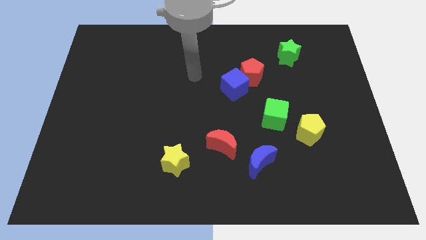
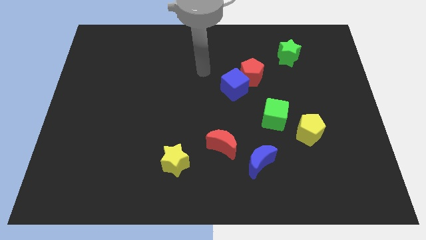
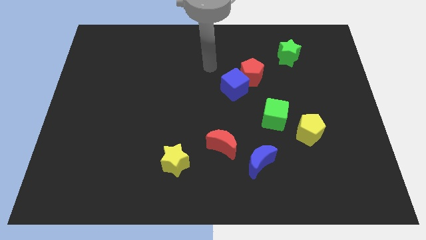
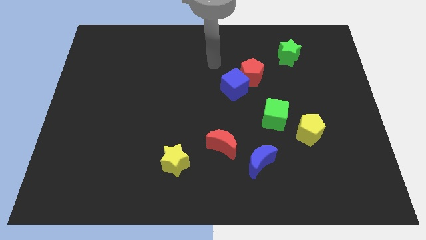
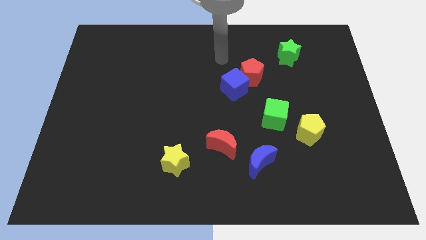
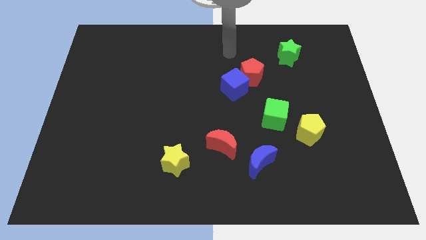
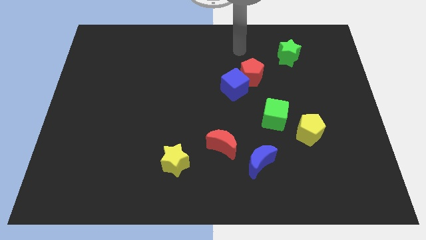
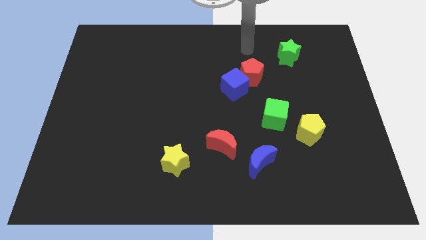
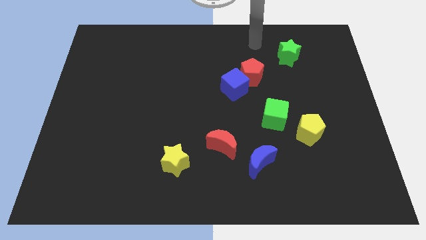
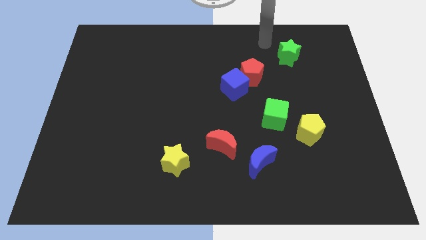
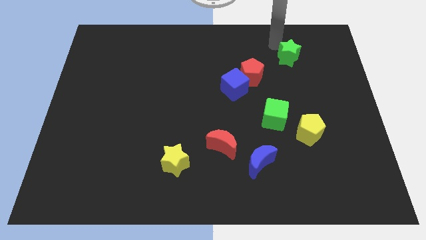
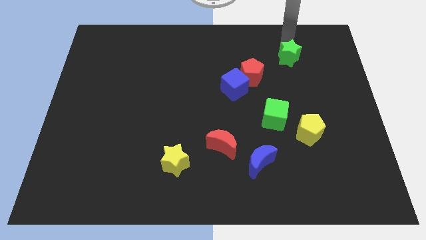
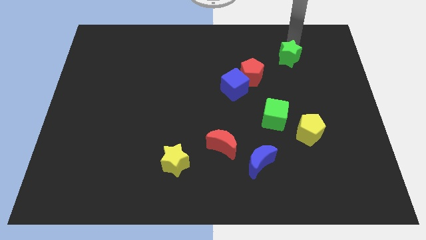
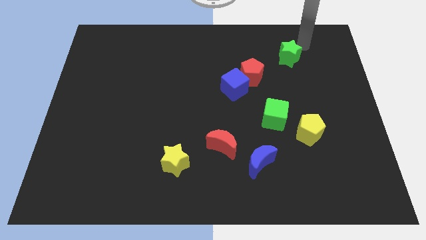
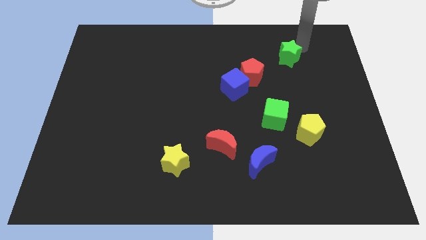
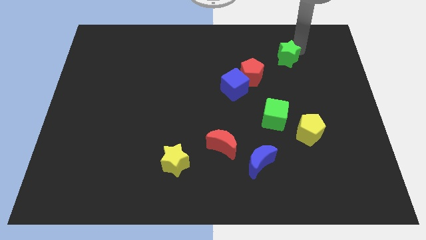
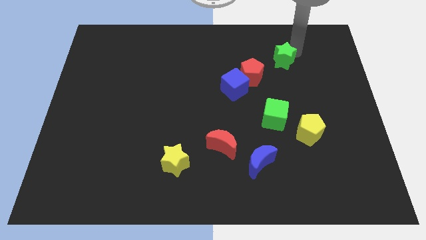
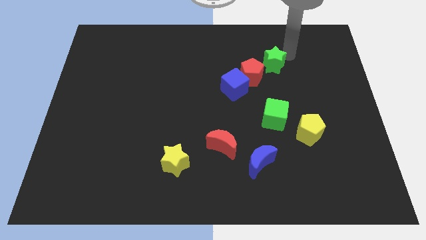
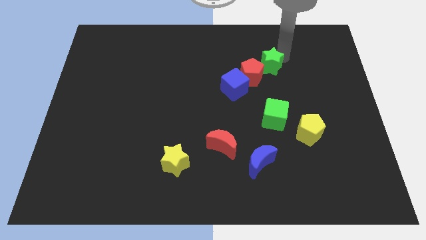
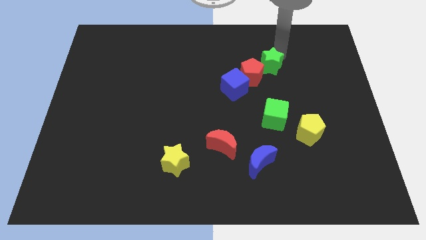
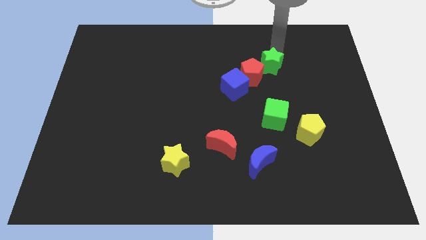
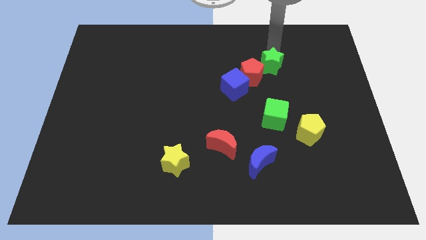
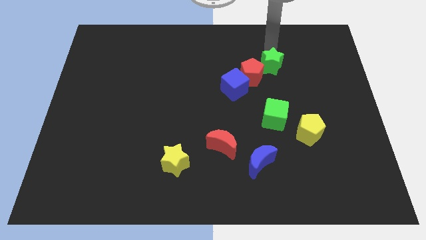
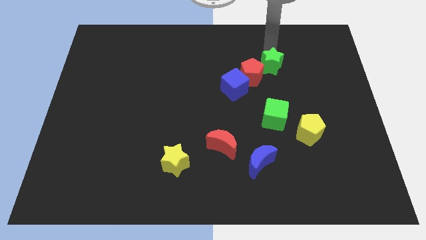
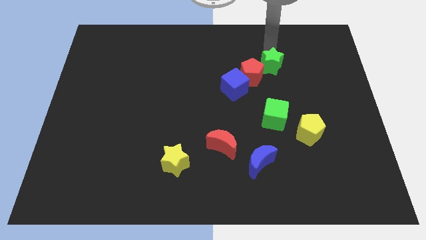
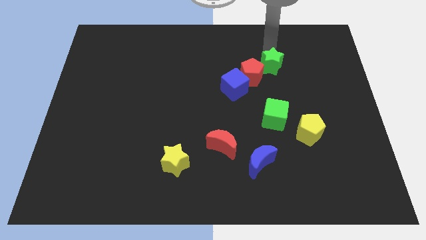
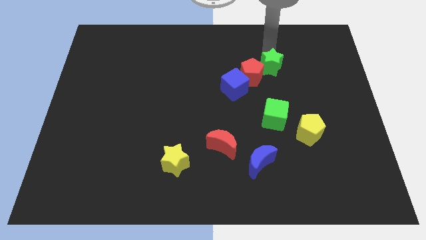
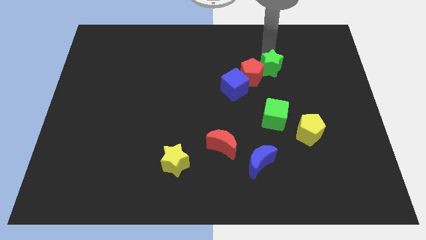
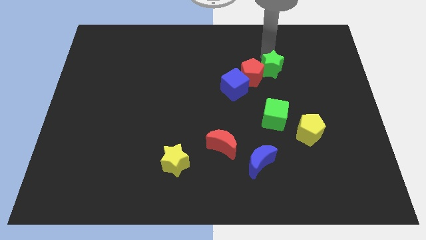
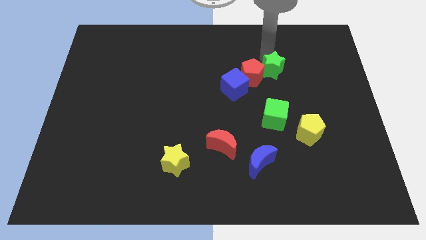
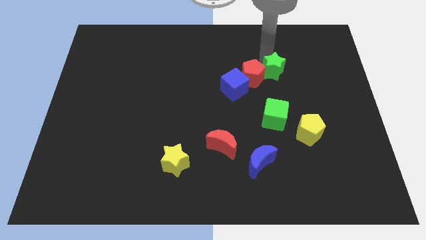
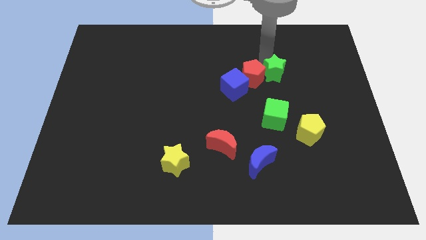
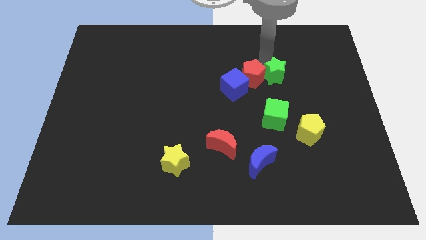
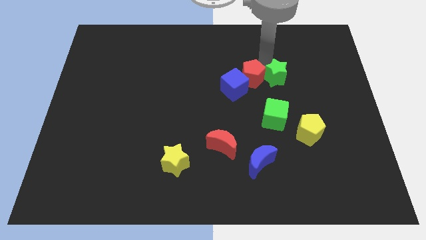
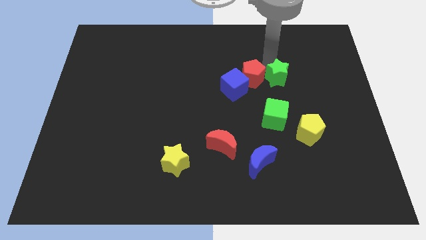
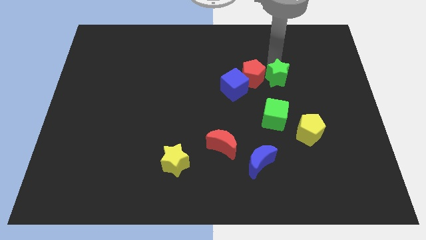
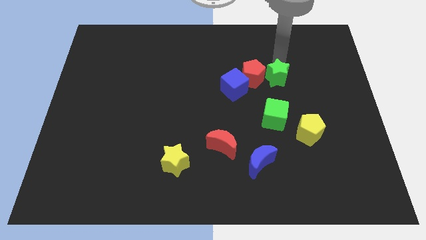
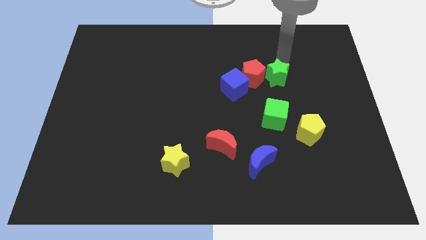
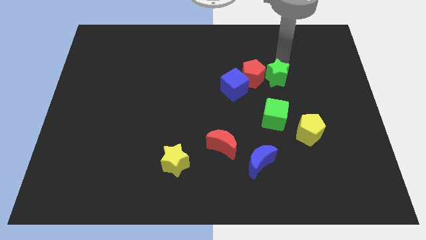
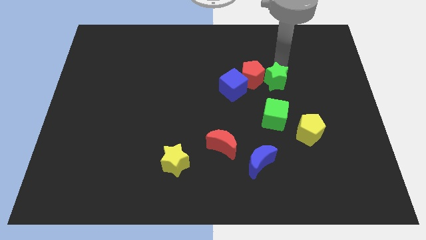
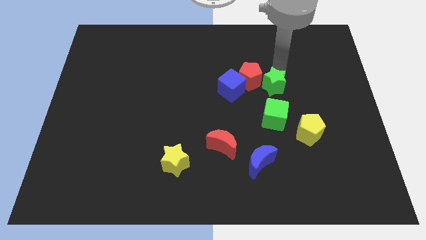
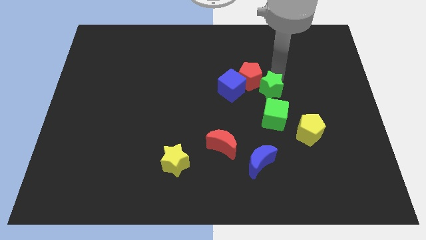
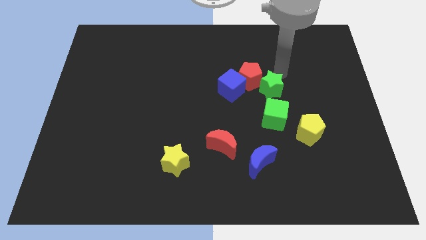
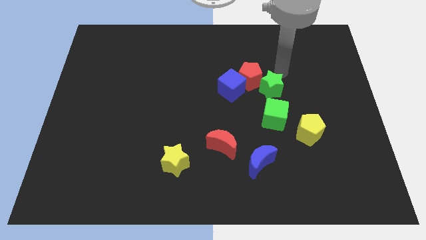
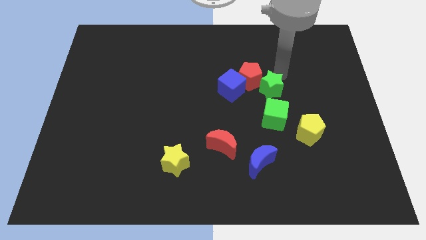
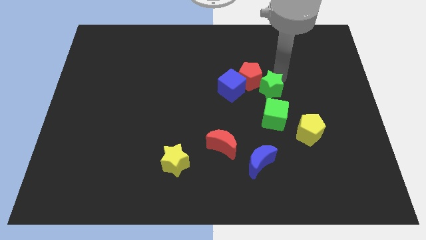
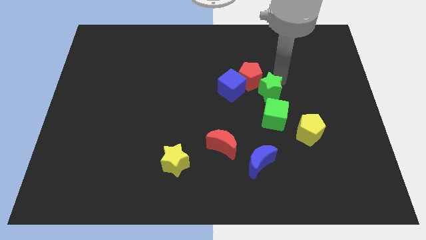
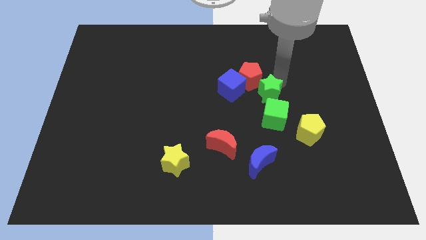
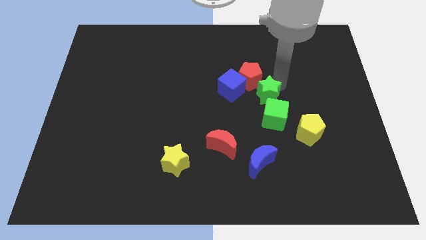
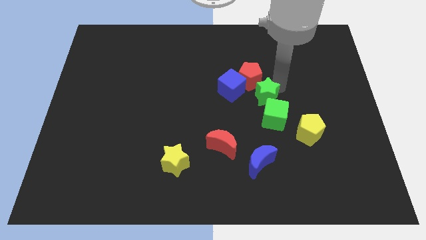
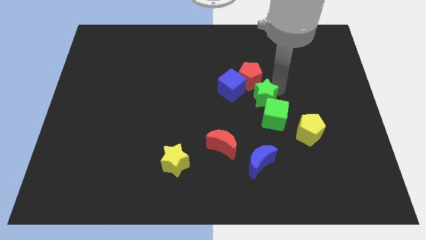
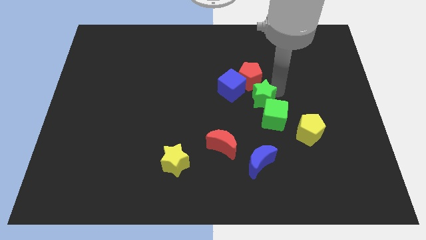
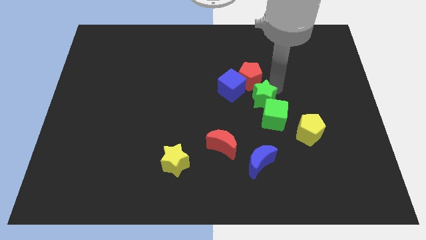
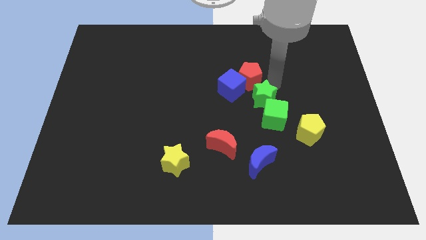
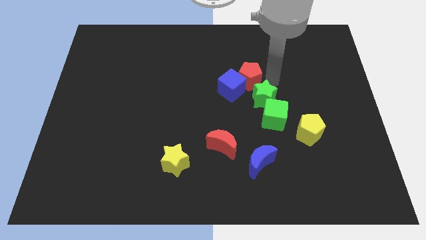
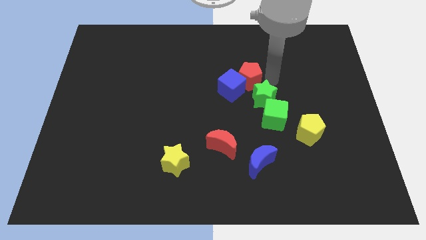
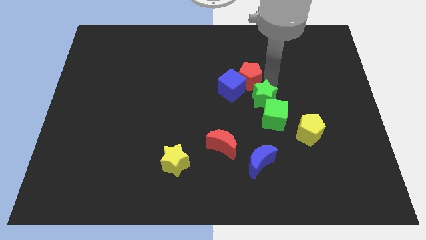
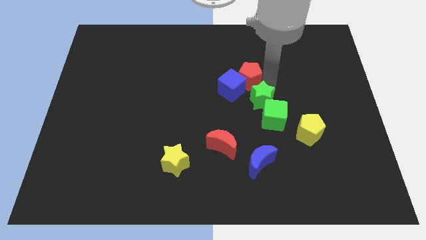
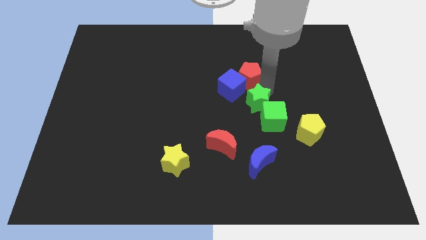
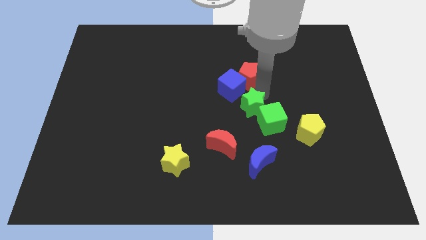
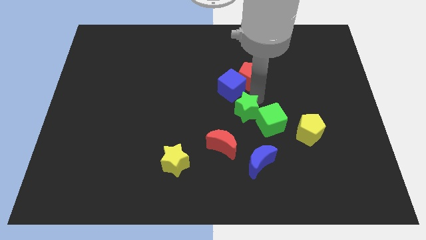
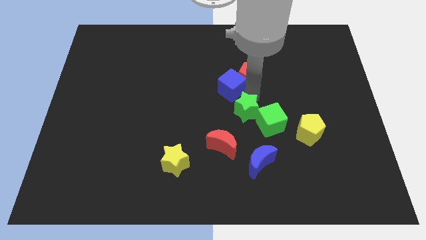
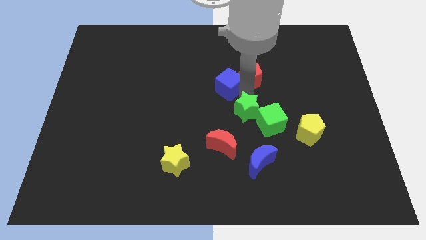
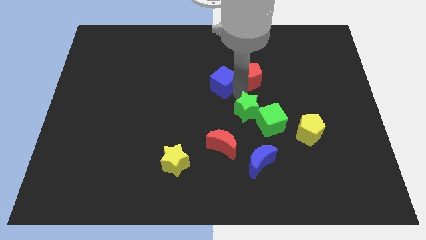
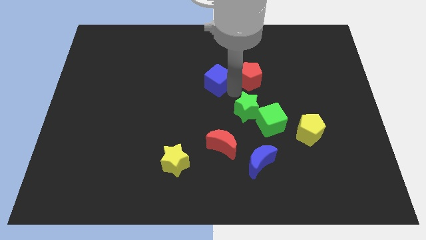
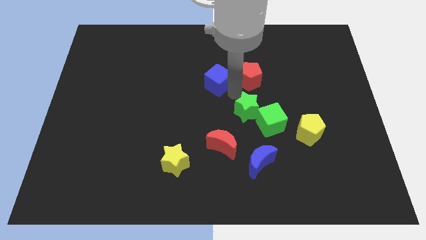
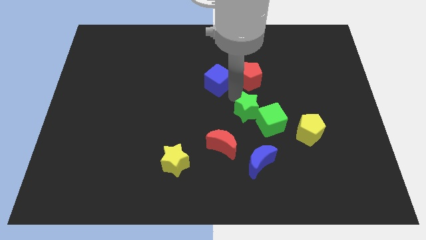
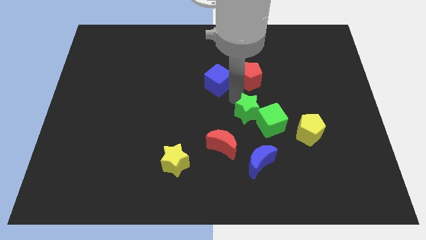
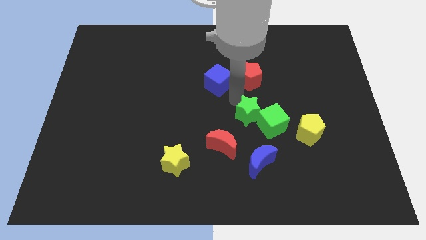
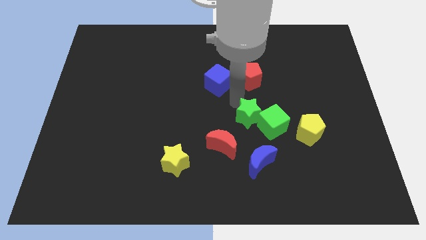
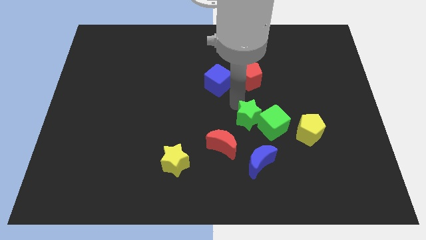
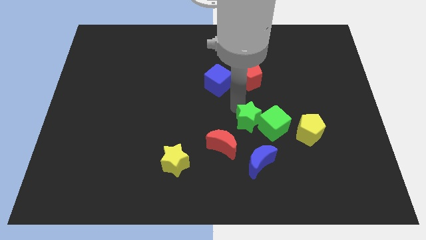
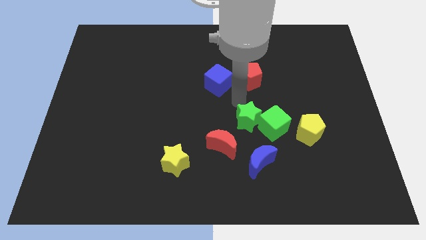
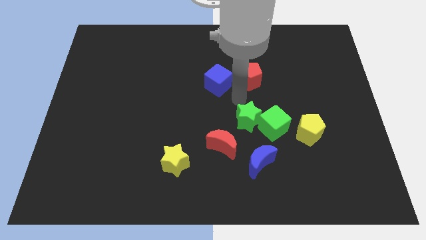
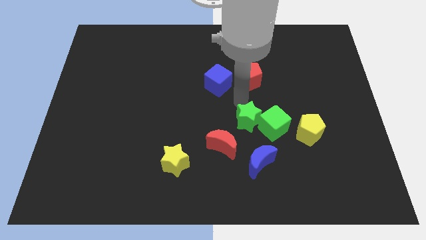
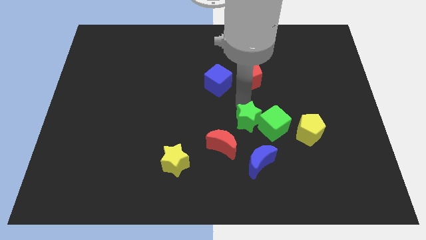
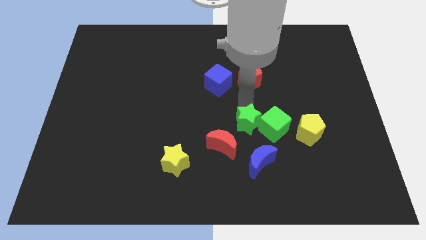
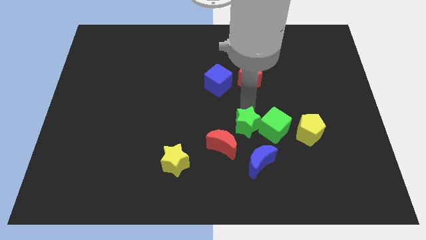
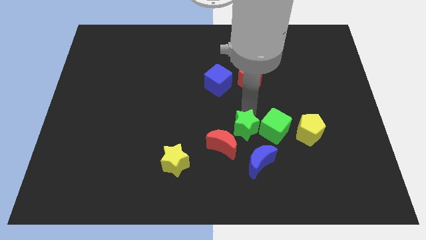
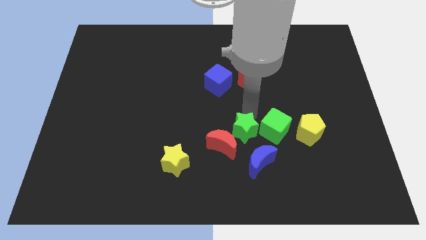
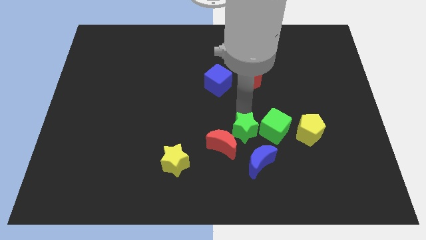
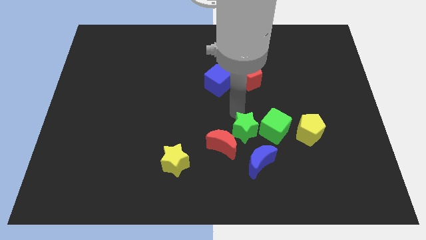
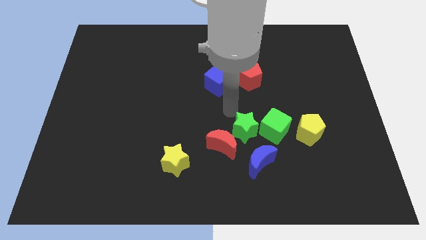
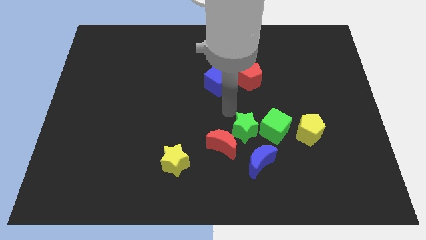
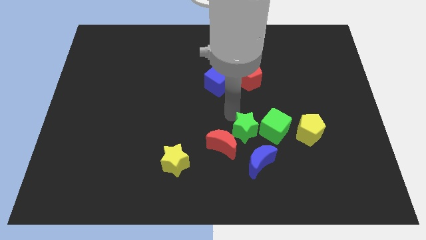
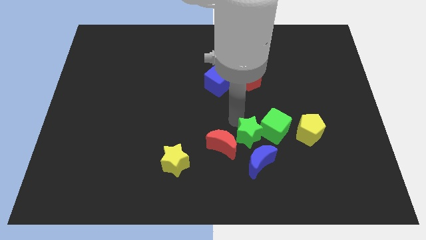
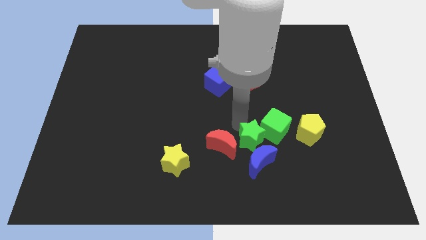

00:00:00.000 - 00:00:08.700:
slide the green star close to the blue moon
